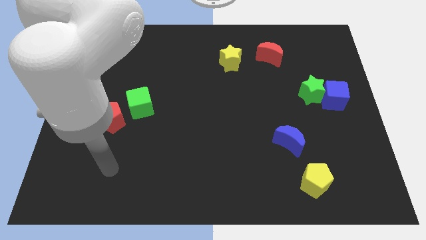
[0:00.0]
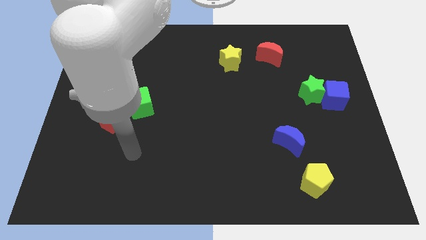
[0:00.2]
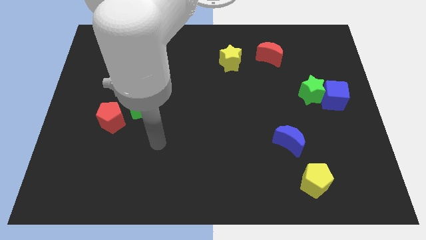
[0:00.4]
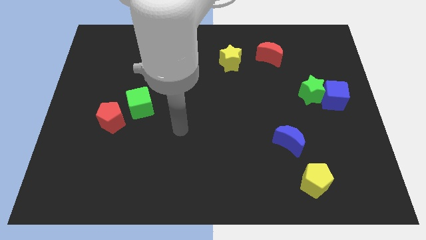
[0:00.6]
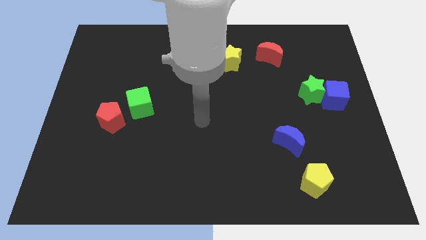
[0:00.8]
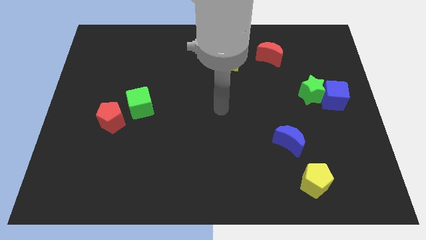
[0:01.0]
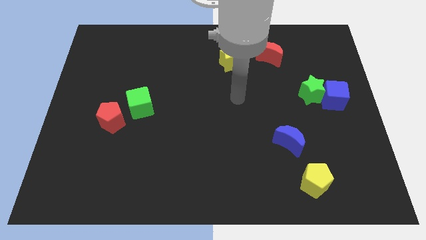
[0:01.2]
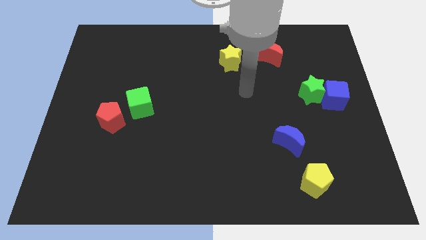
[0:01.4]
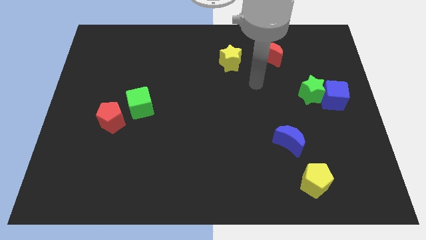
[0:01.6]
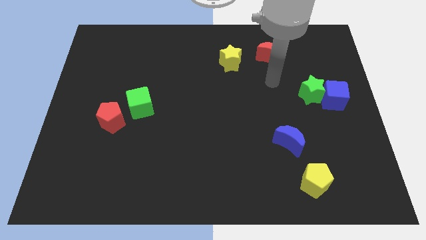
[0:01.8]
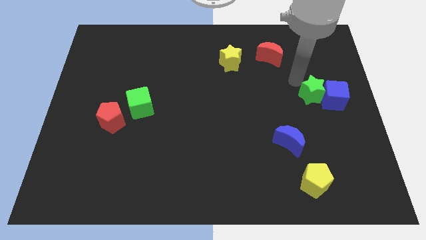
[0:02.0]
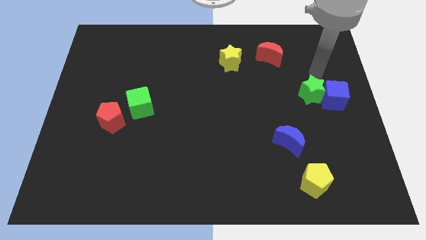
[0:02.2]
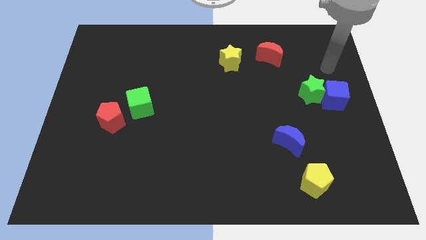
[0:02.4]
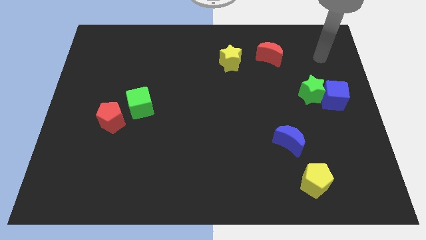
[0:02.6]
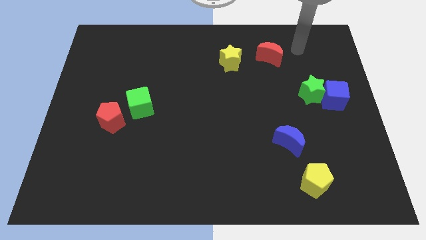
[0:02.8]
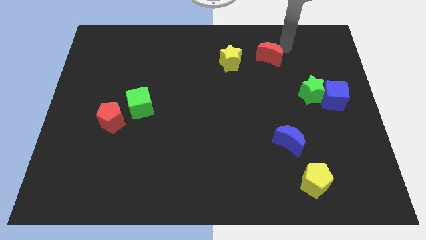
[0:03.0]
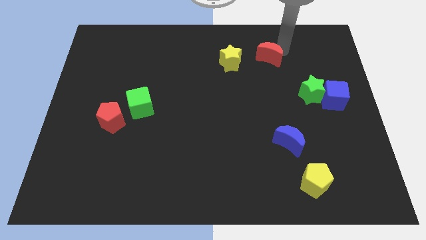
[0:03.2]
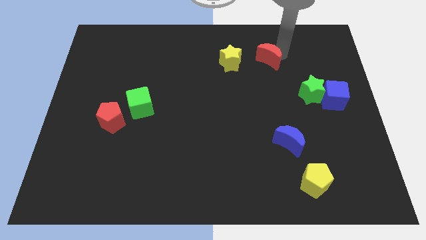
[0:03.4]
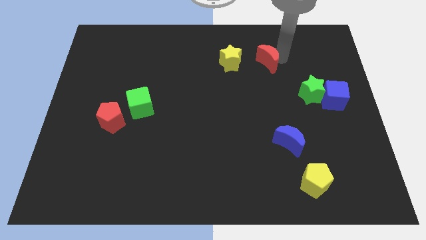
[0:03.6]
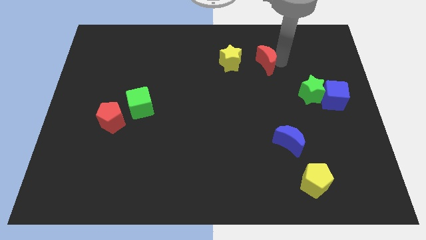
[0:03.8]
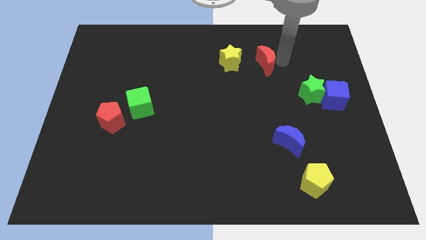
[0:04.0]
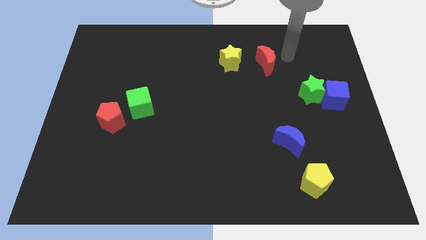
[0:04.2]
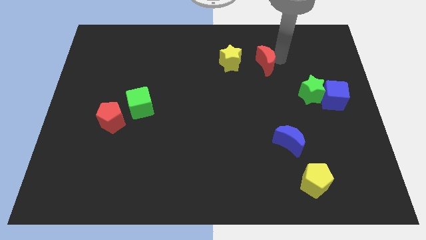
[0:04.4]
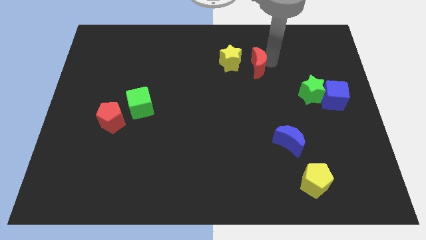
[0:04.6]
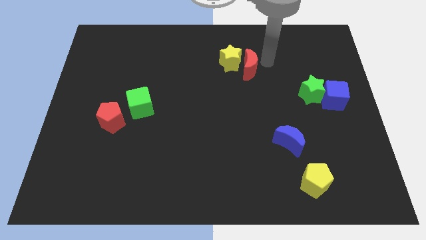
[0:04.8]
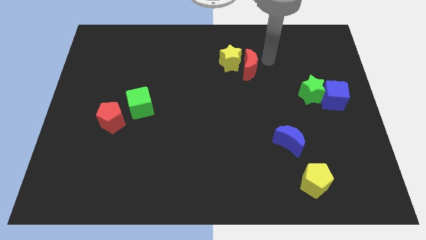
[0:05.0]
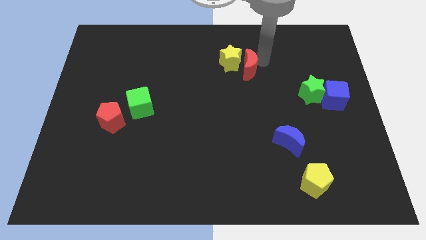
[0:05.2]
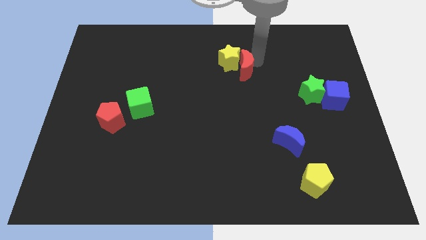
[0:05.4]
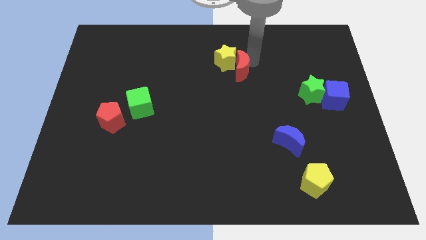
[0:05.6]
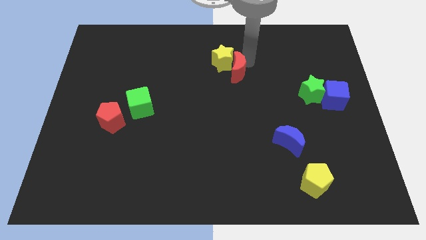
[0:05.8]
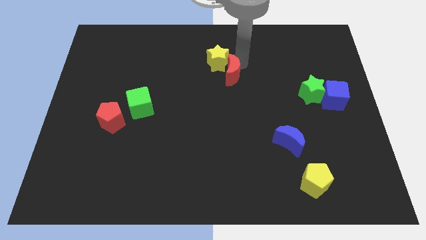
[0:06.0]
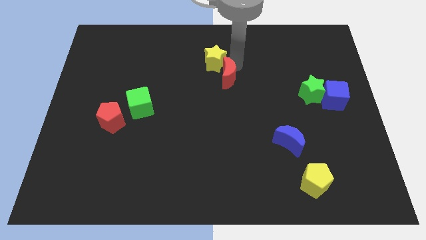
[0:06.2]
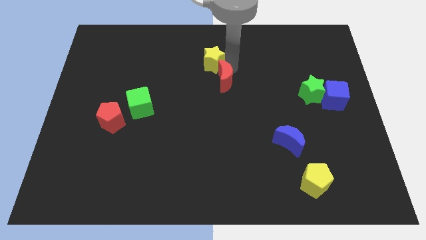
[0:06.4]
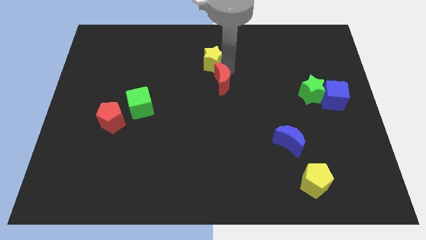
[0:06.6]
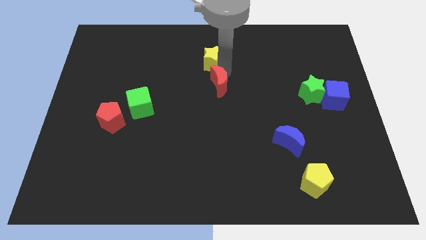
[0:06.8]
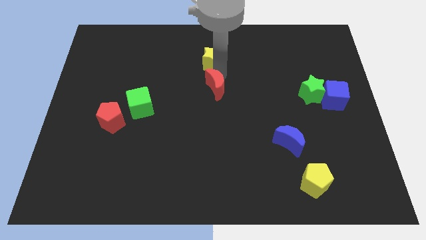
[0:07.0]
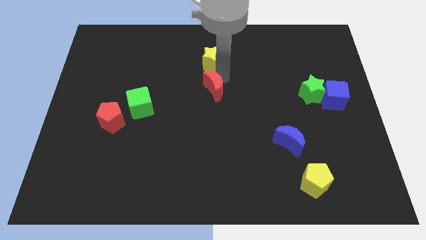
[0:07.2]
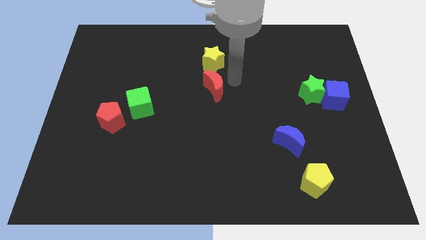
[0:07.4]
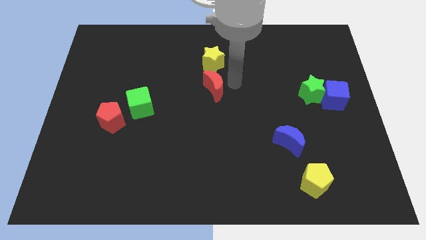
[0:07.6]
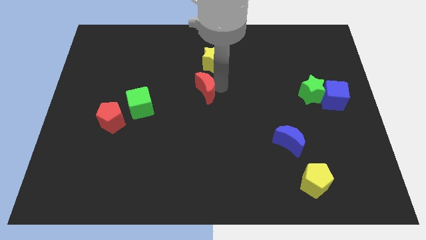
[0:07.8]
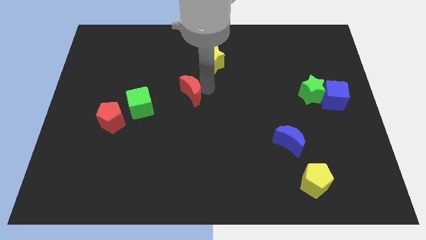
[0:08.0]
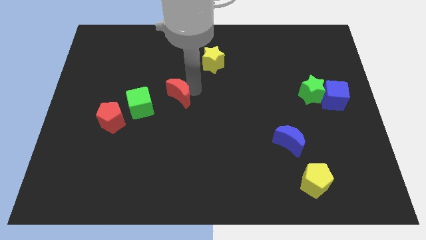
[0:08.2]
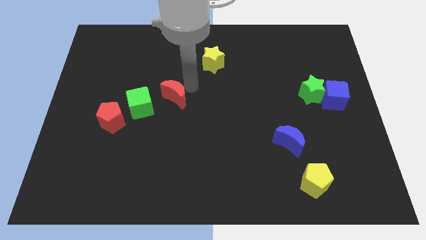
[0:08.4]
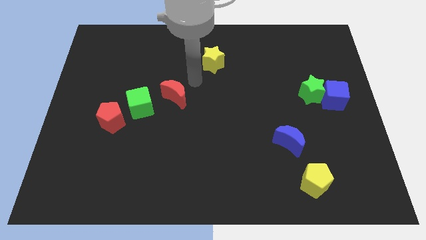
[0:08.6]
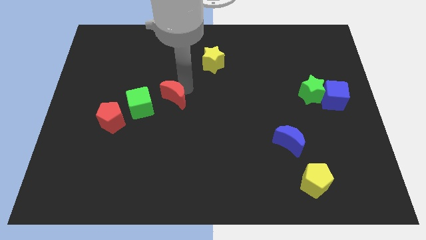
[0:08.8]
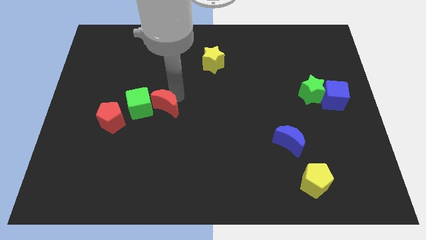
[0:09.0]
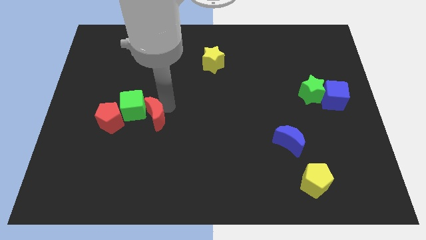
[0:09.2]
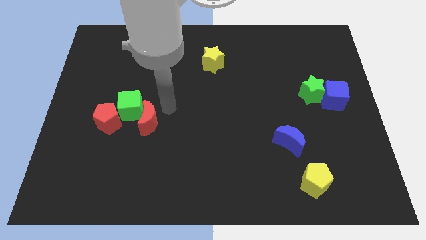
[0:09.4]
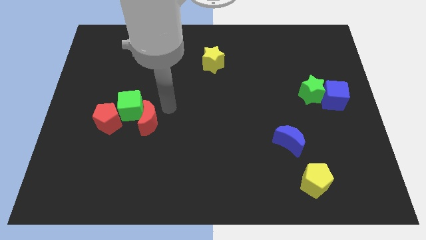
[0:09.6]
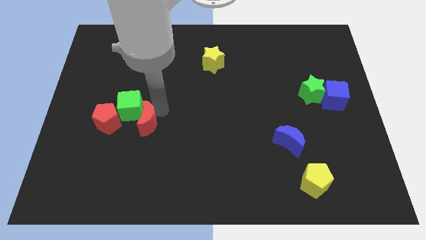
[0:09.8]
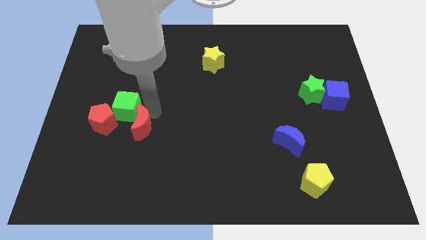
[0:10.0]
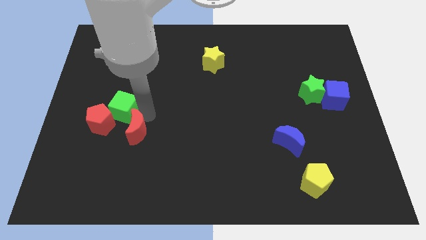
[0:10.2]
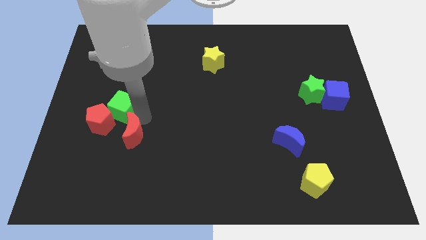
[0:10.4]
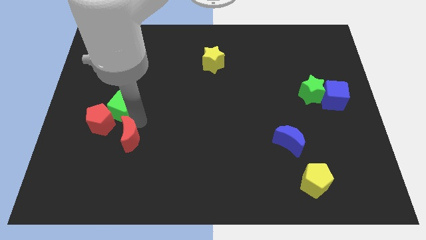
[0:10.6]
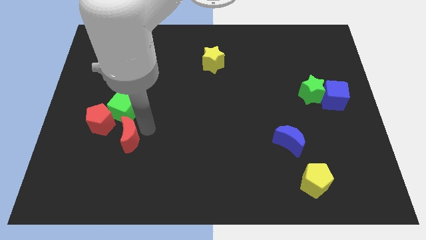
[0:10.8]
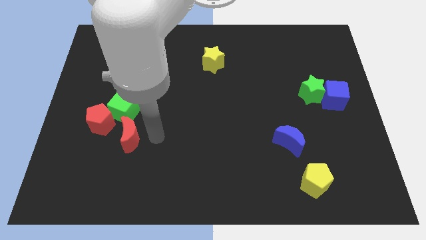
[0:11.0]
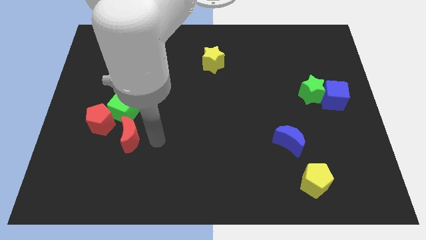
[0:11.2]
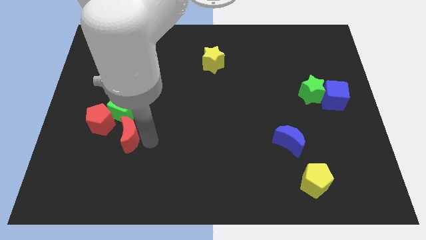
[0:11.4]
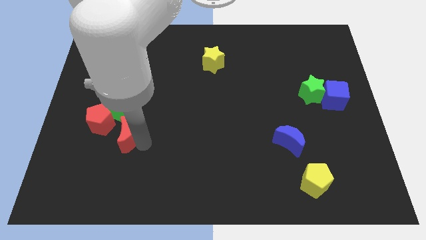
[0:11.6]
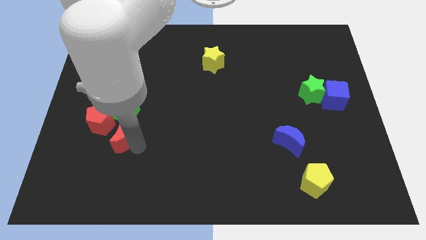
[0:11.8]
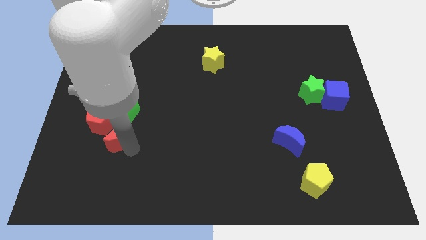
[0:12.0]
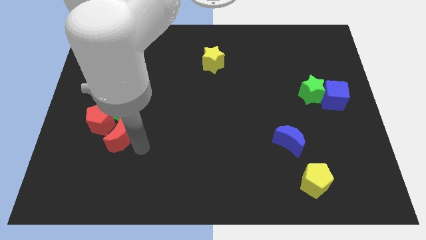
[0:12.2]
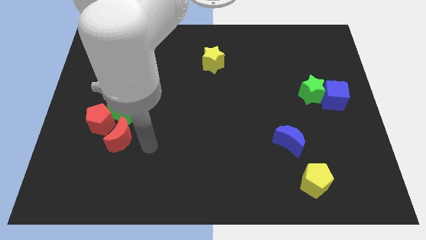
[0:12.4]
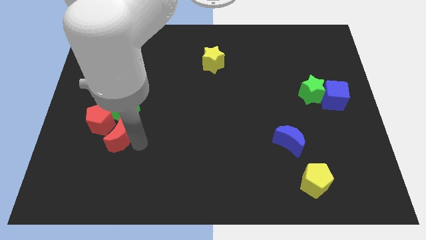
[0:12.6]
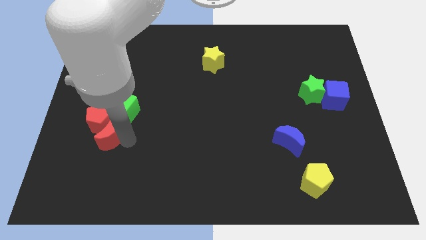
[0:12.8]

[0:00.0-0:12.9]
move the red moon diagonally down and to the left of the green cube

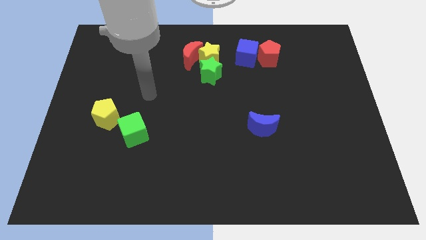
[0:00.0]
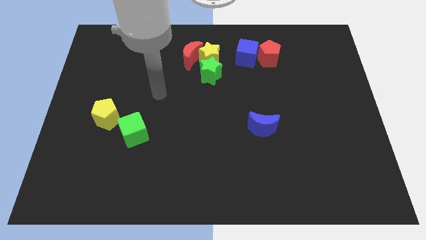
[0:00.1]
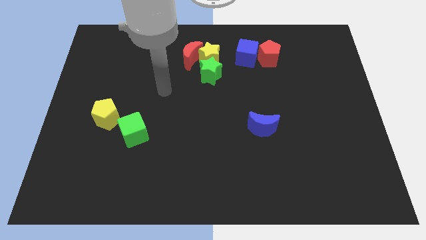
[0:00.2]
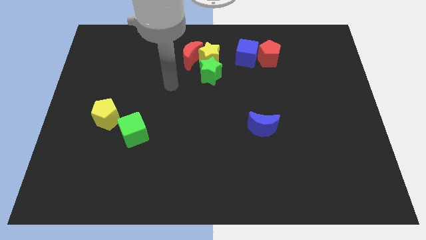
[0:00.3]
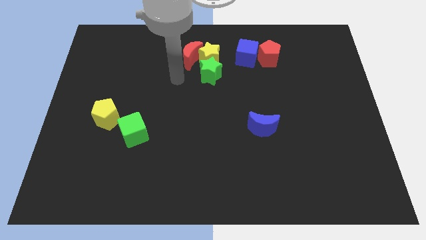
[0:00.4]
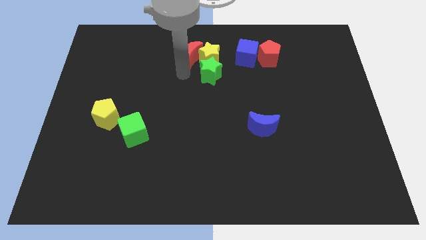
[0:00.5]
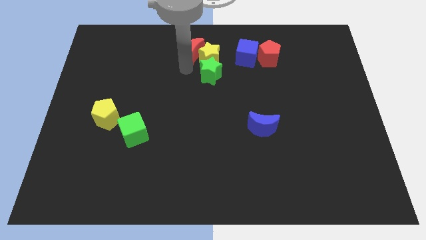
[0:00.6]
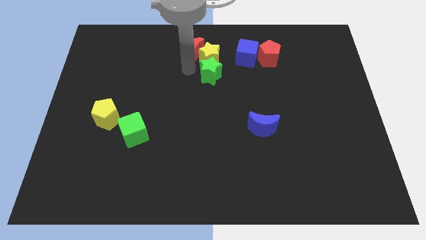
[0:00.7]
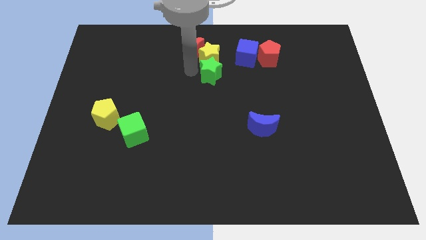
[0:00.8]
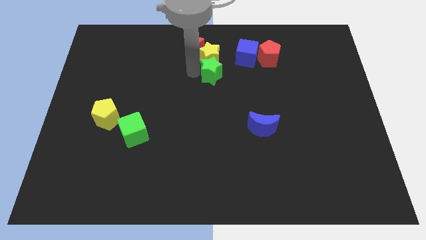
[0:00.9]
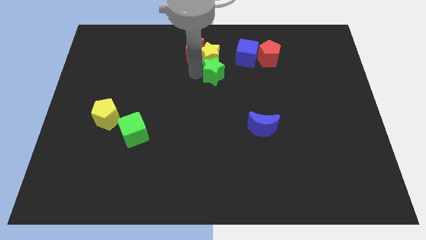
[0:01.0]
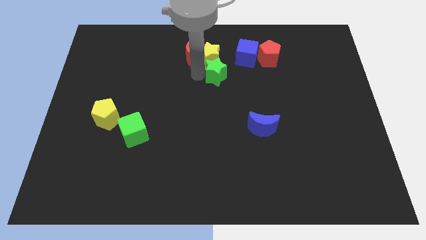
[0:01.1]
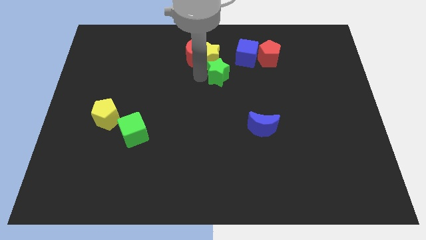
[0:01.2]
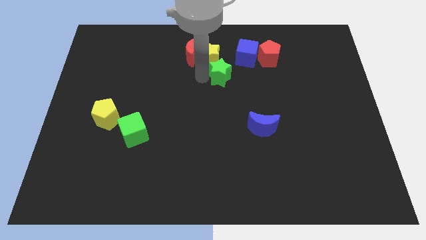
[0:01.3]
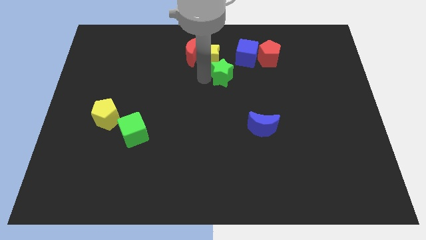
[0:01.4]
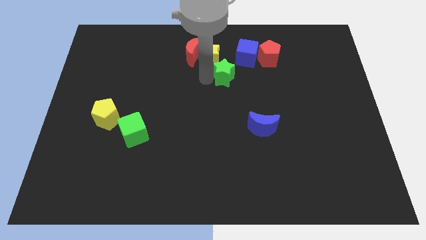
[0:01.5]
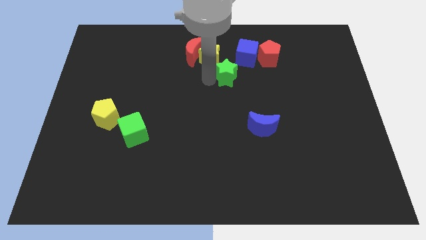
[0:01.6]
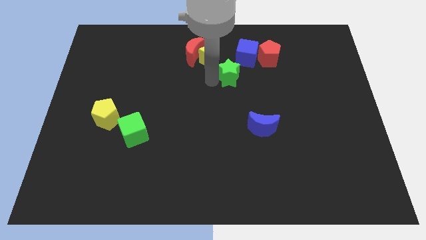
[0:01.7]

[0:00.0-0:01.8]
put the green star to the bottom of the blue cube

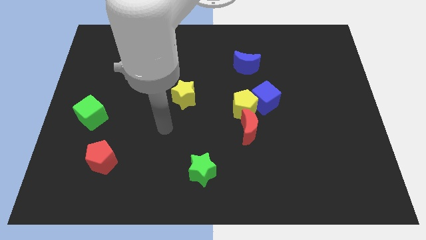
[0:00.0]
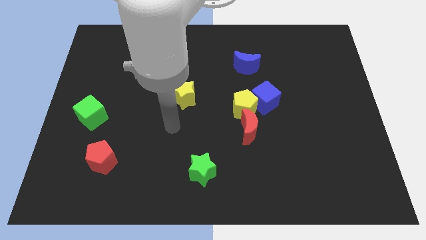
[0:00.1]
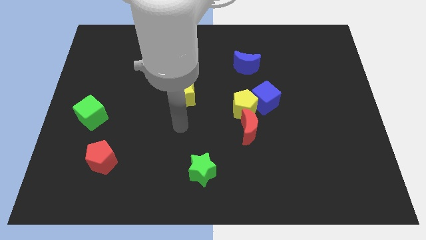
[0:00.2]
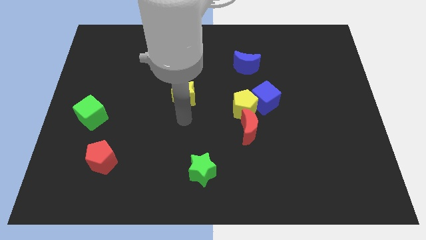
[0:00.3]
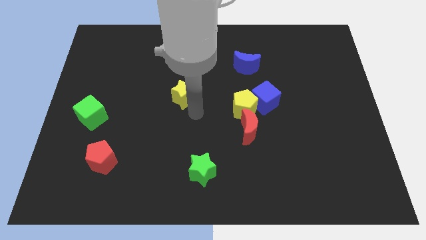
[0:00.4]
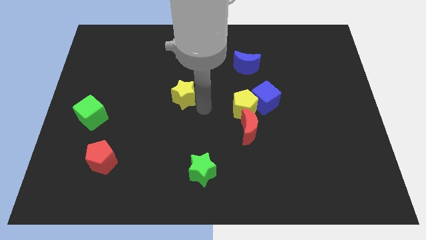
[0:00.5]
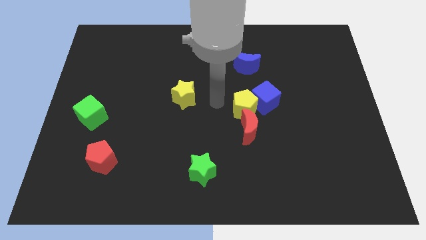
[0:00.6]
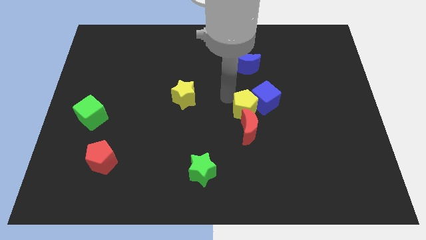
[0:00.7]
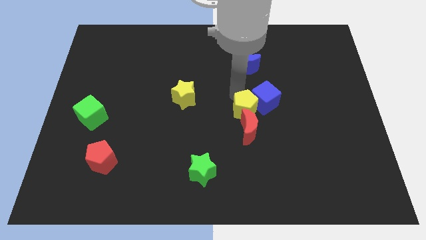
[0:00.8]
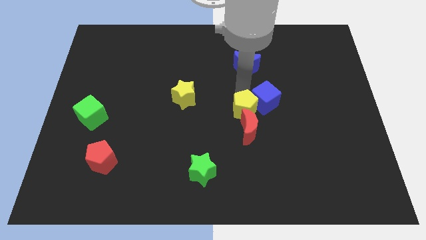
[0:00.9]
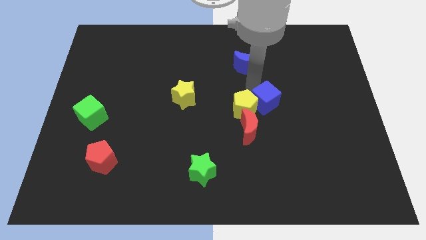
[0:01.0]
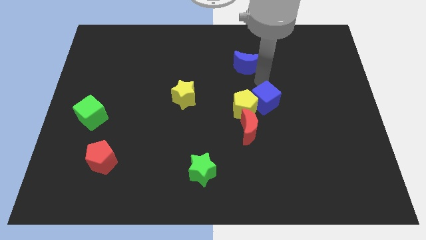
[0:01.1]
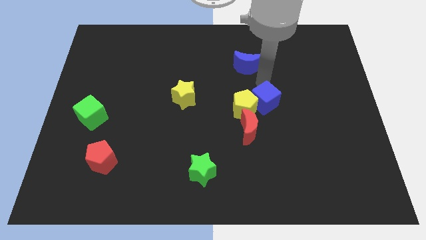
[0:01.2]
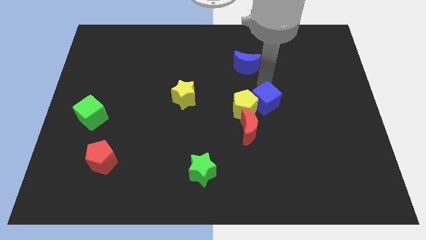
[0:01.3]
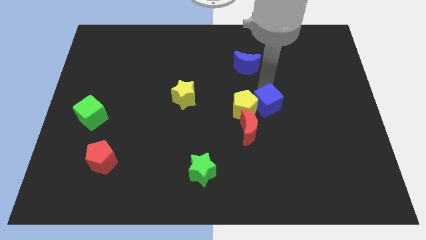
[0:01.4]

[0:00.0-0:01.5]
slide the blue cube to the bottom right of the yellow pentagon
